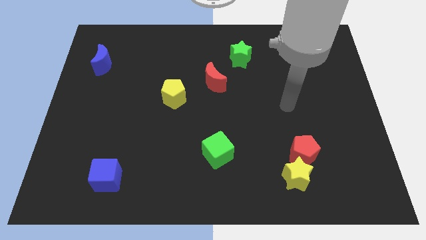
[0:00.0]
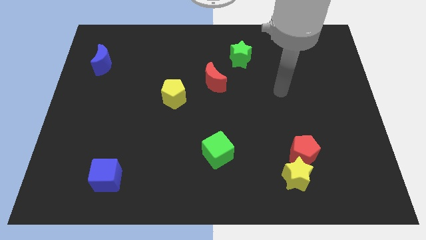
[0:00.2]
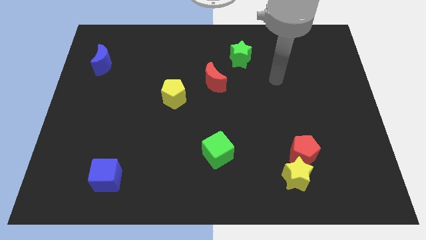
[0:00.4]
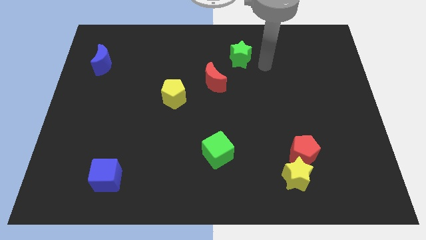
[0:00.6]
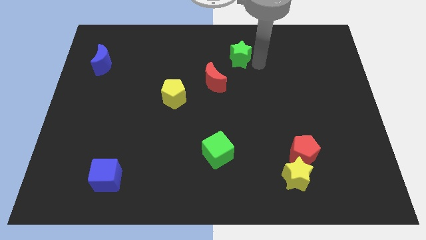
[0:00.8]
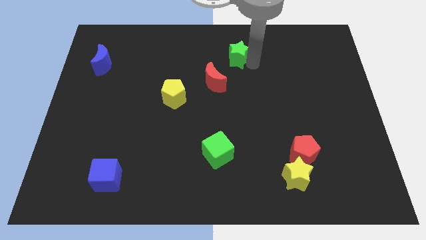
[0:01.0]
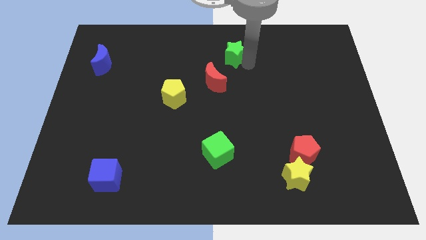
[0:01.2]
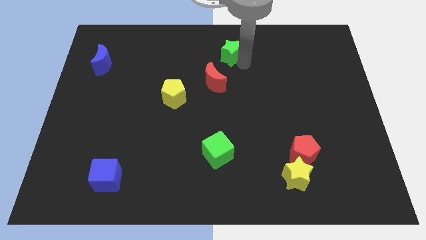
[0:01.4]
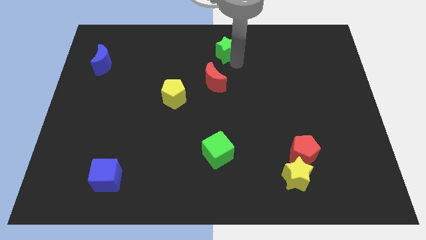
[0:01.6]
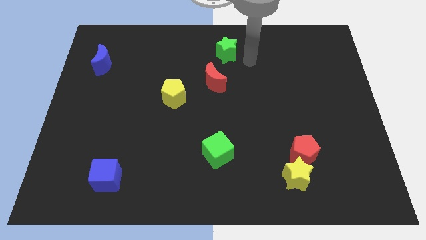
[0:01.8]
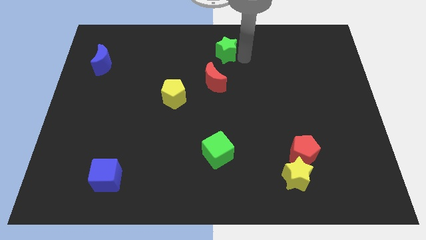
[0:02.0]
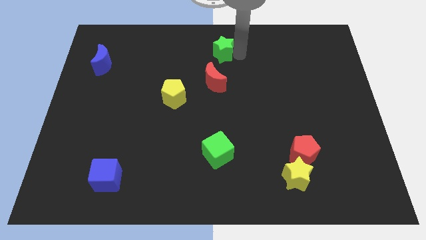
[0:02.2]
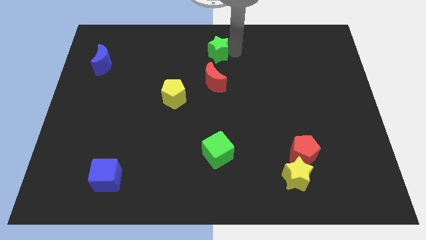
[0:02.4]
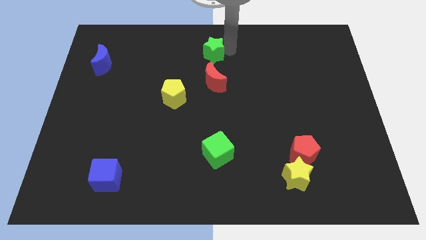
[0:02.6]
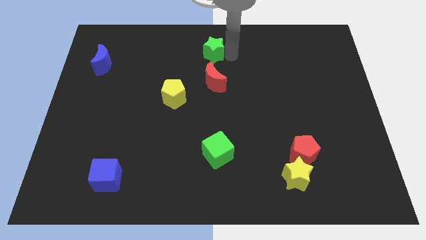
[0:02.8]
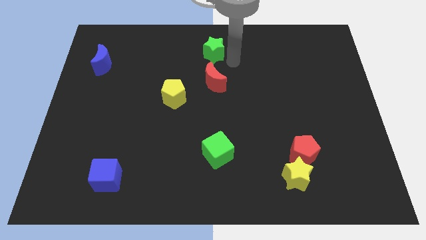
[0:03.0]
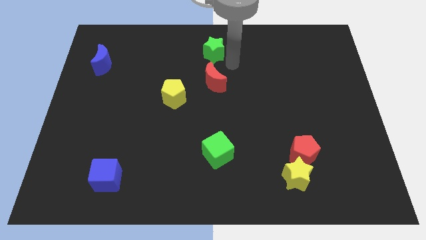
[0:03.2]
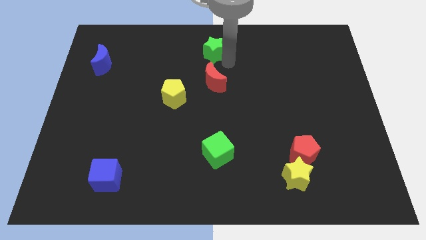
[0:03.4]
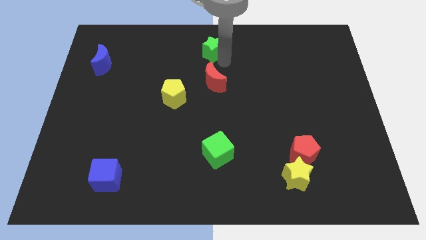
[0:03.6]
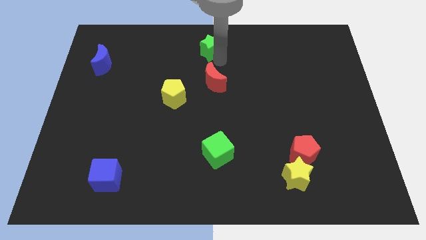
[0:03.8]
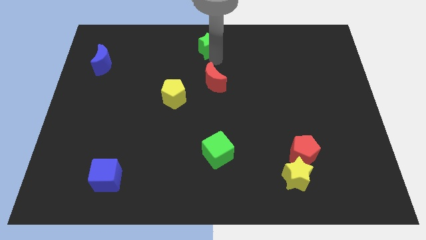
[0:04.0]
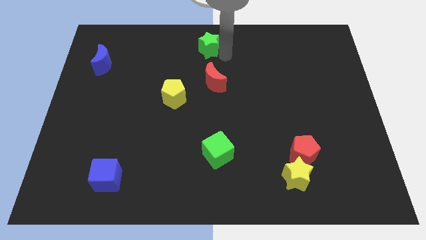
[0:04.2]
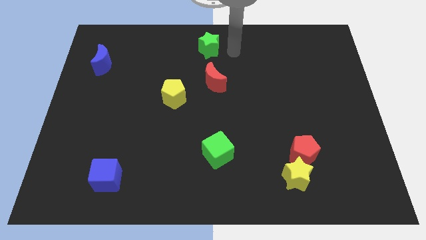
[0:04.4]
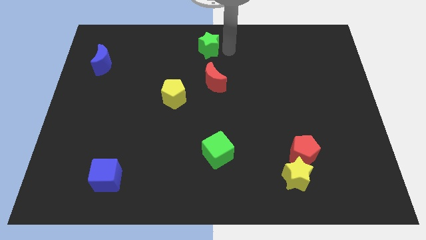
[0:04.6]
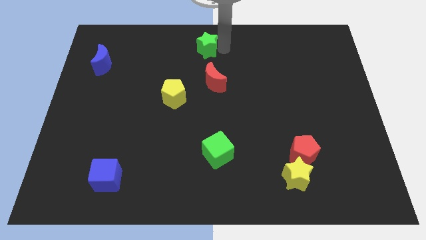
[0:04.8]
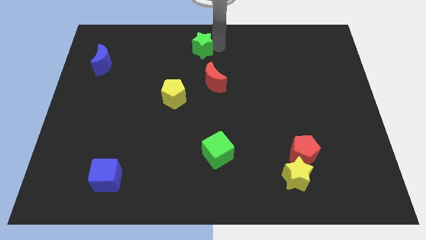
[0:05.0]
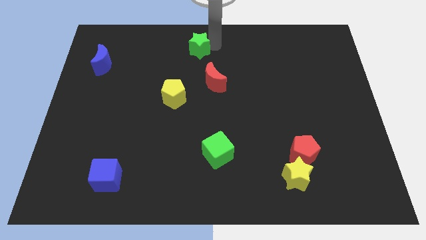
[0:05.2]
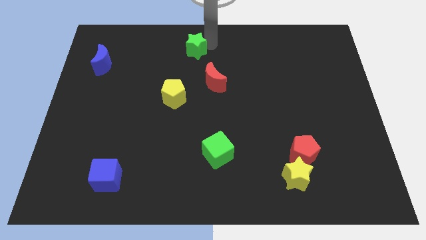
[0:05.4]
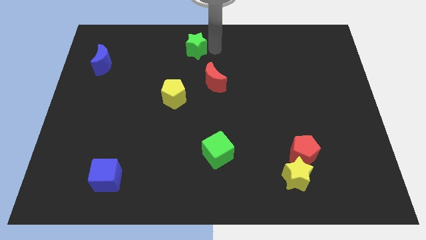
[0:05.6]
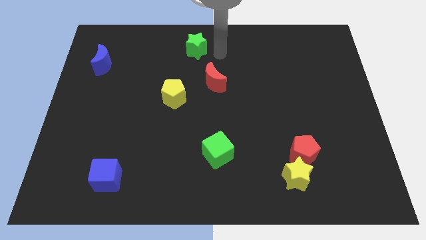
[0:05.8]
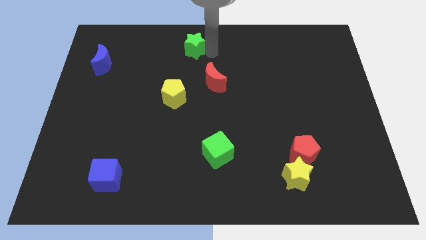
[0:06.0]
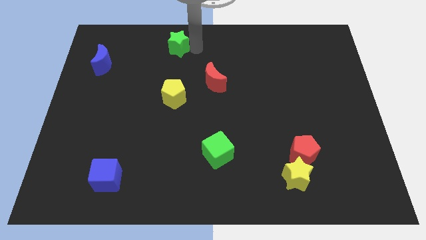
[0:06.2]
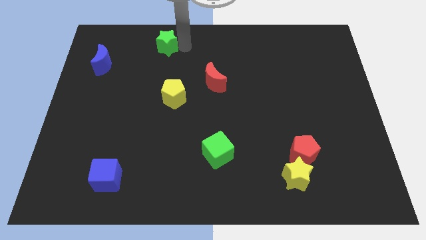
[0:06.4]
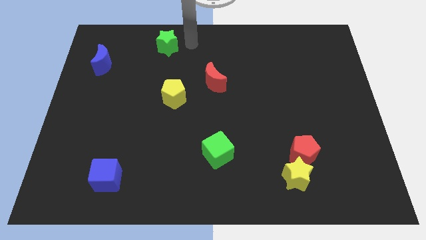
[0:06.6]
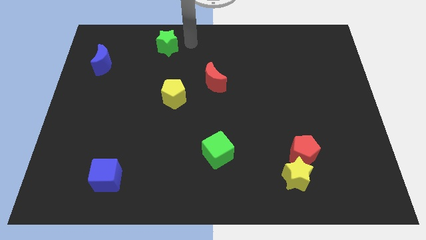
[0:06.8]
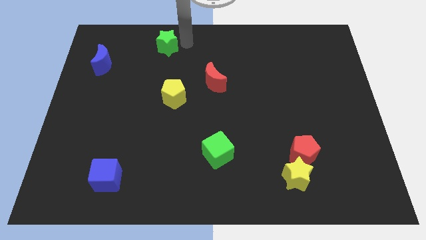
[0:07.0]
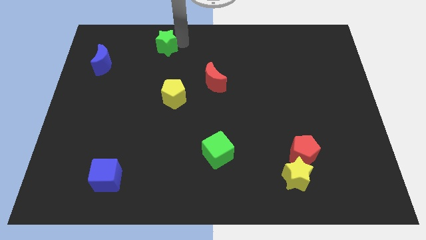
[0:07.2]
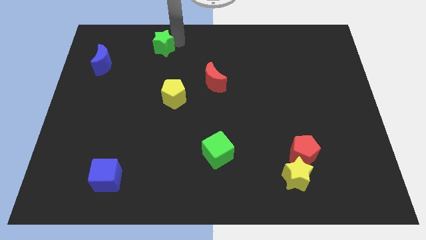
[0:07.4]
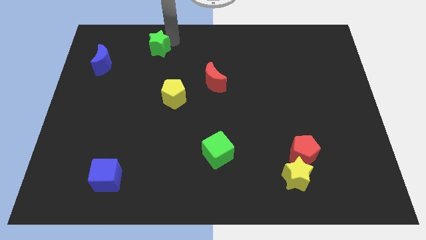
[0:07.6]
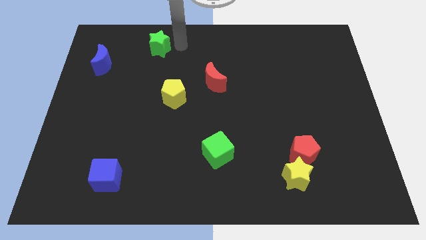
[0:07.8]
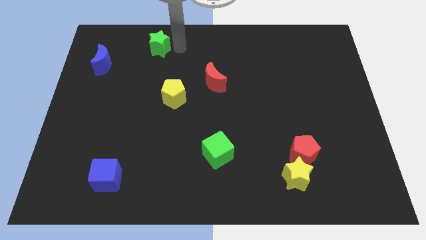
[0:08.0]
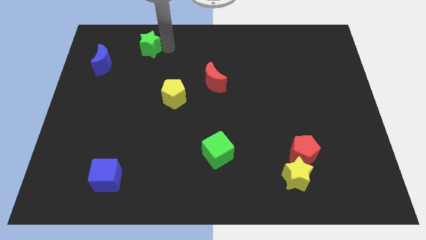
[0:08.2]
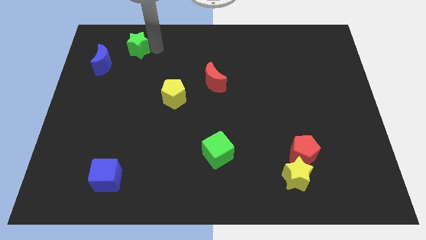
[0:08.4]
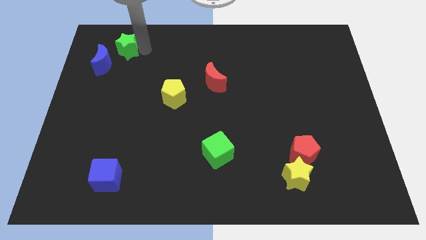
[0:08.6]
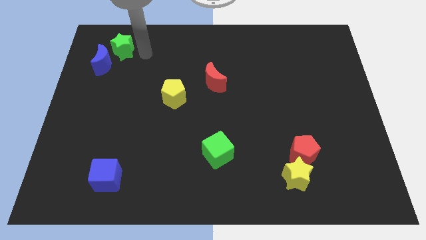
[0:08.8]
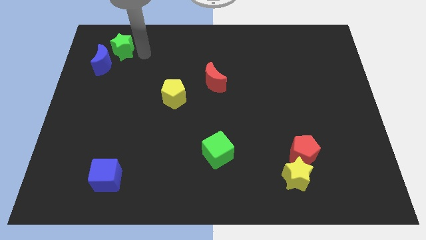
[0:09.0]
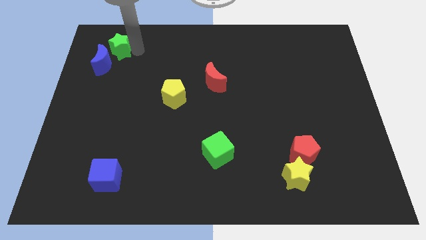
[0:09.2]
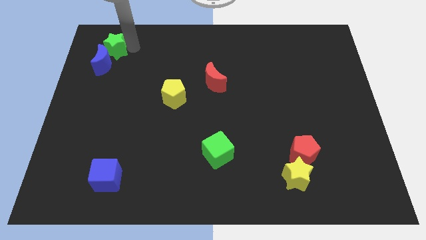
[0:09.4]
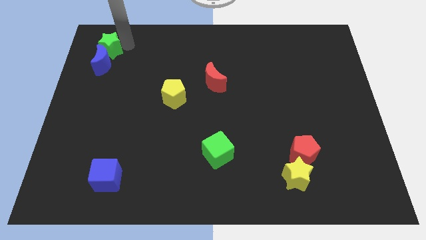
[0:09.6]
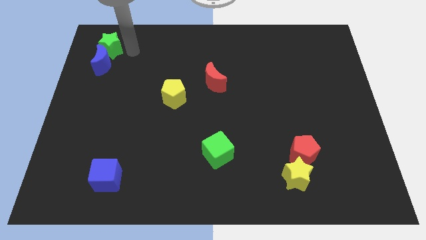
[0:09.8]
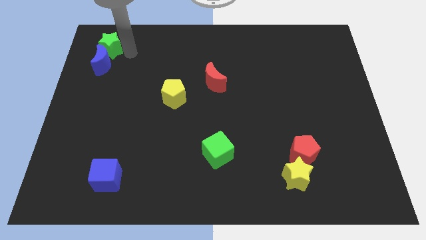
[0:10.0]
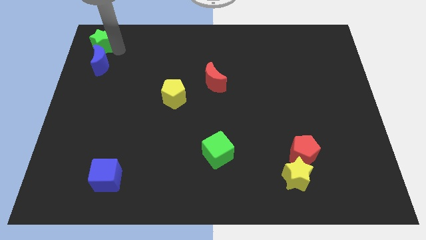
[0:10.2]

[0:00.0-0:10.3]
put the green star to the top left of the board

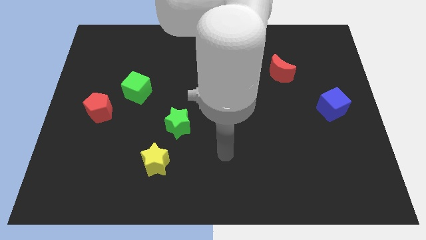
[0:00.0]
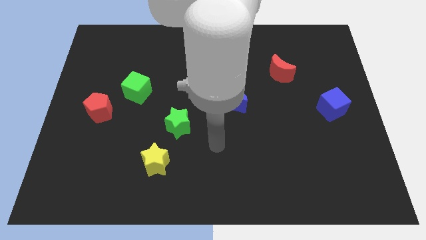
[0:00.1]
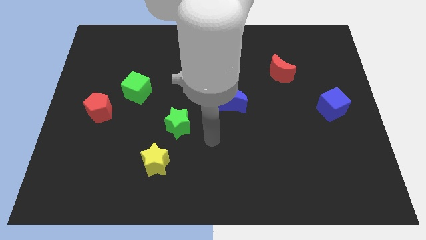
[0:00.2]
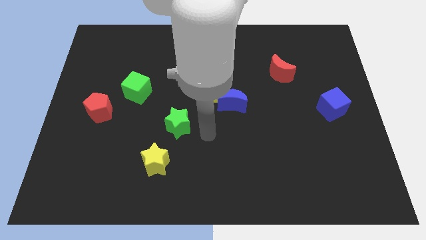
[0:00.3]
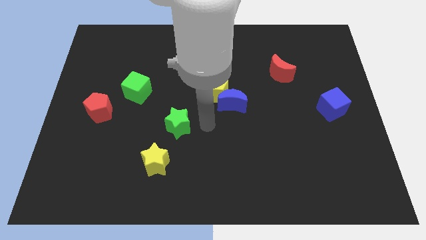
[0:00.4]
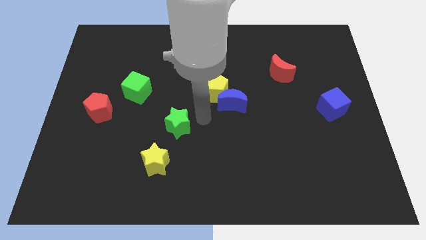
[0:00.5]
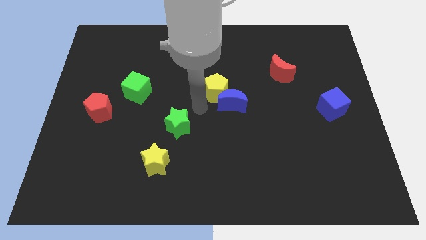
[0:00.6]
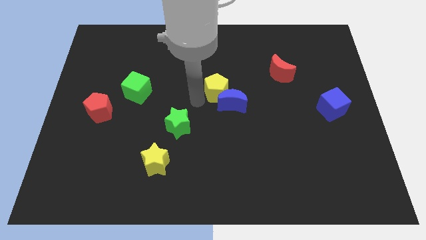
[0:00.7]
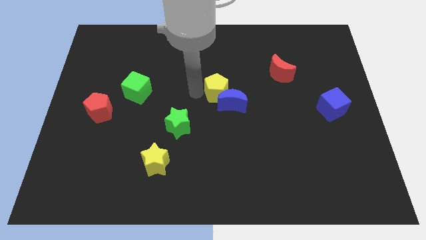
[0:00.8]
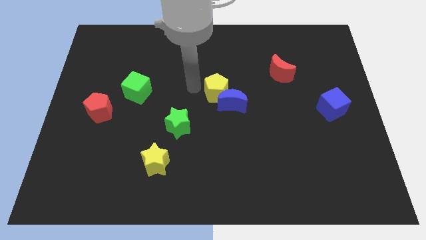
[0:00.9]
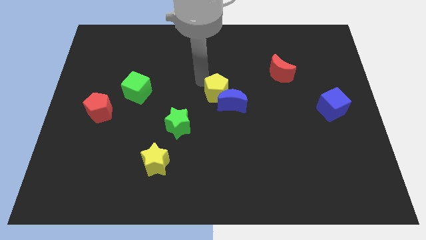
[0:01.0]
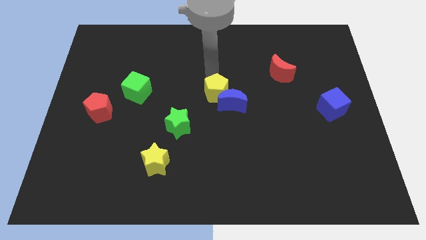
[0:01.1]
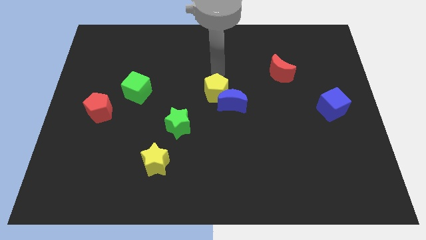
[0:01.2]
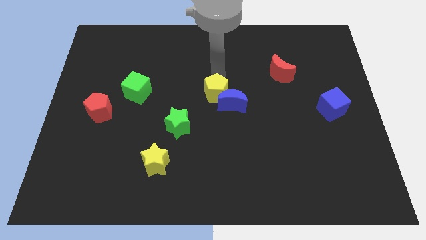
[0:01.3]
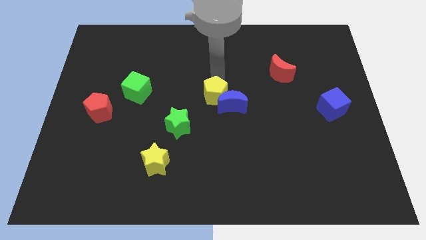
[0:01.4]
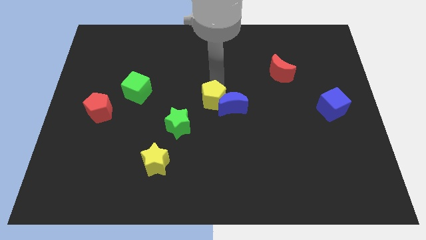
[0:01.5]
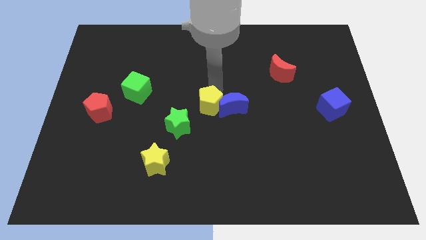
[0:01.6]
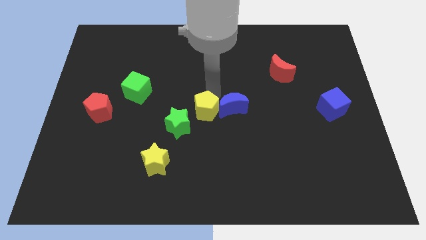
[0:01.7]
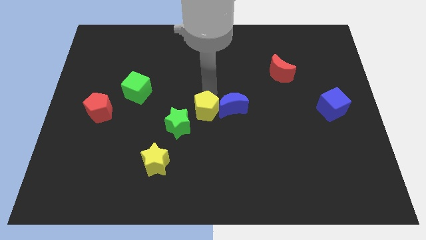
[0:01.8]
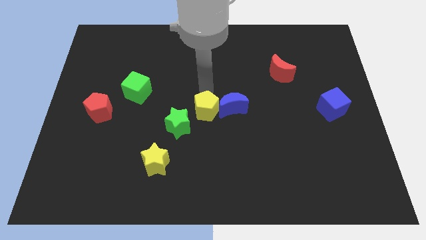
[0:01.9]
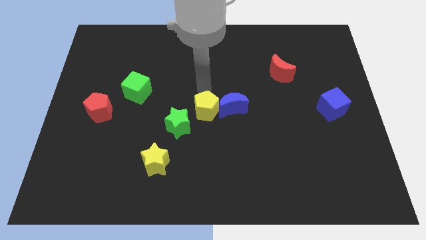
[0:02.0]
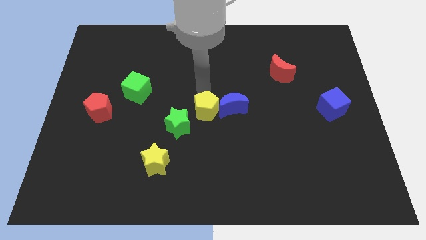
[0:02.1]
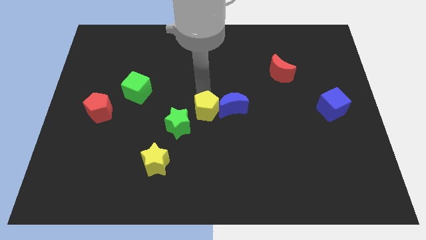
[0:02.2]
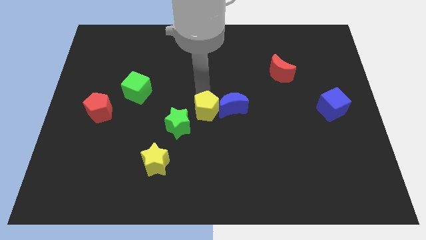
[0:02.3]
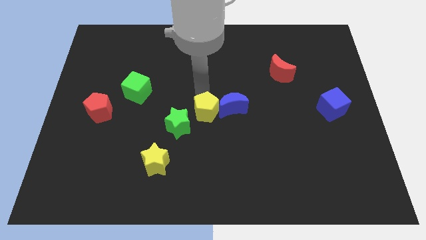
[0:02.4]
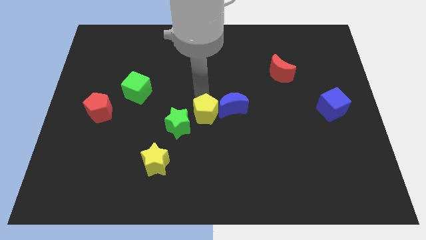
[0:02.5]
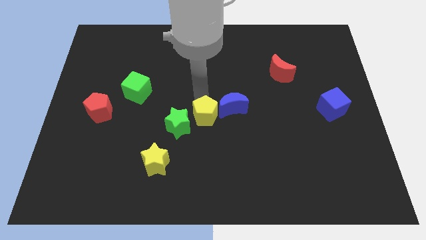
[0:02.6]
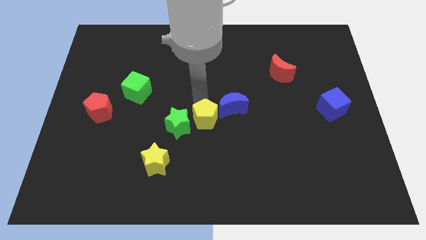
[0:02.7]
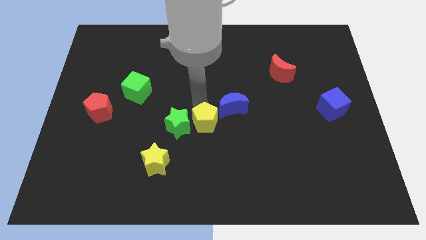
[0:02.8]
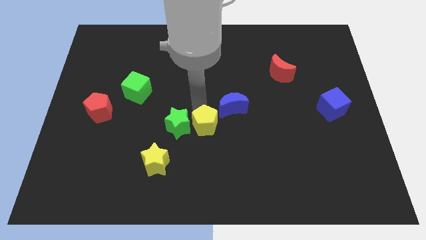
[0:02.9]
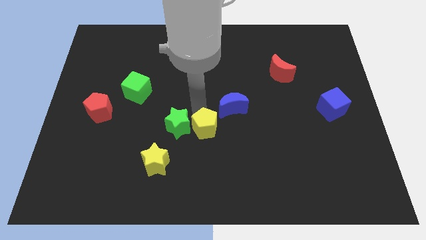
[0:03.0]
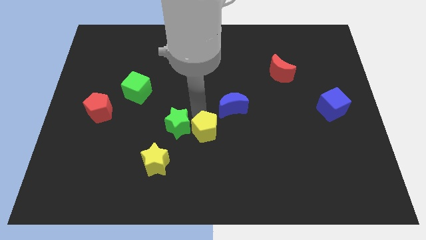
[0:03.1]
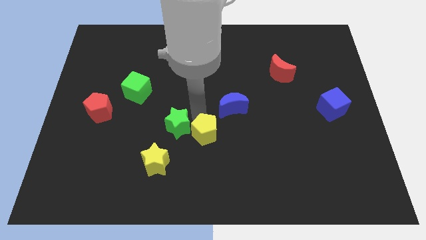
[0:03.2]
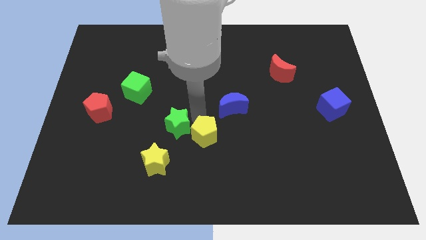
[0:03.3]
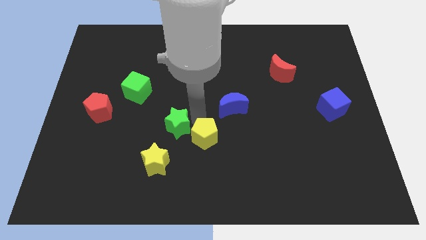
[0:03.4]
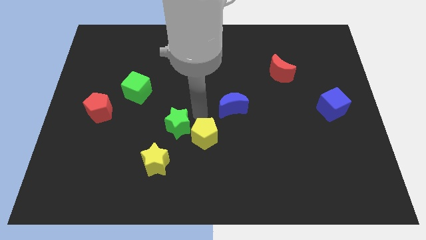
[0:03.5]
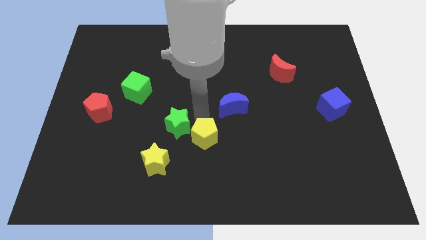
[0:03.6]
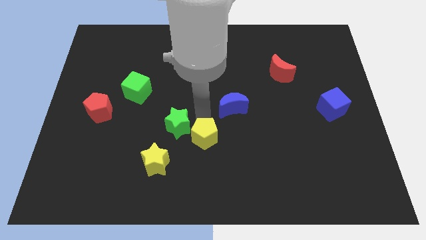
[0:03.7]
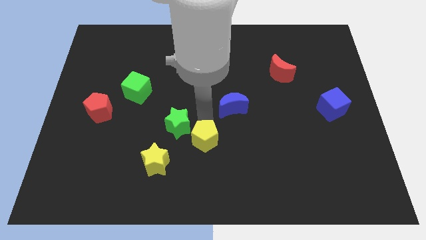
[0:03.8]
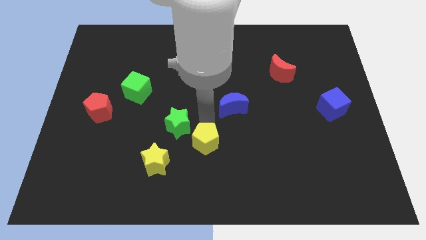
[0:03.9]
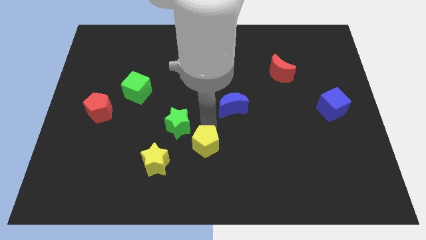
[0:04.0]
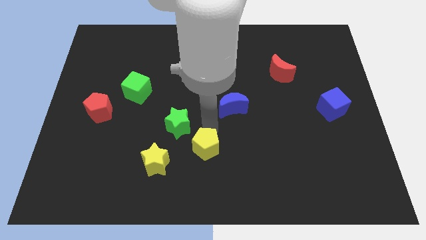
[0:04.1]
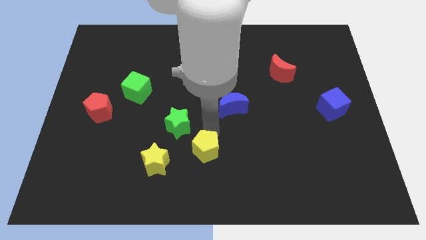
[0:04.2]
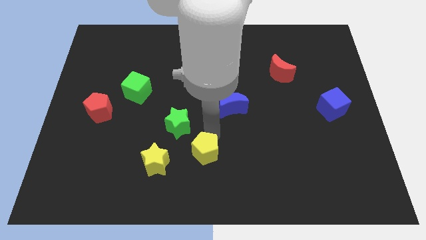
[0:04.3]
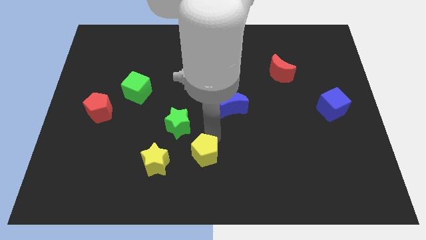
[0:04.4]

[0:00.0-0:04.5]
put the yellow pentagon to the bottom
